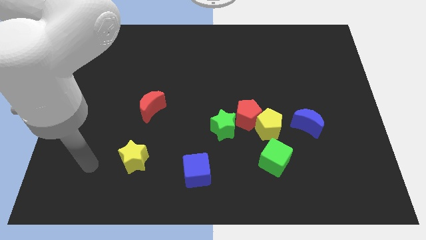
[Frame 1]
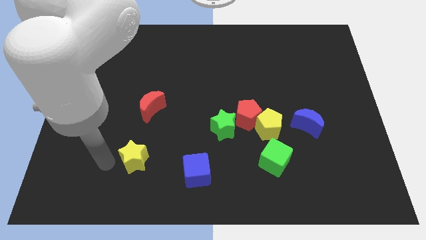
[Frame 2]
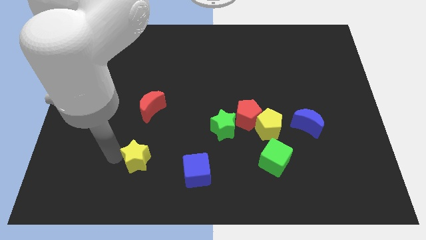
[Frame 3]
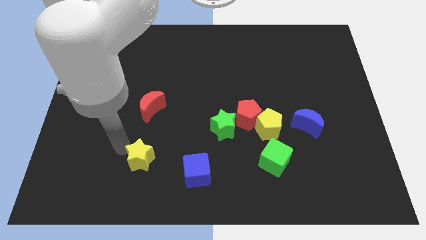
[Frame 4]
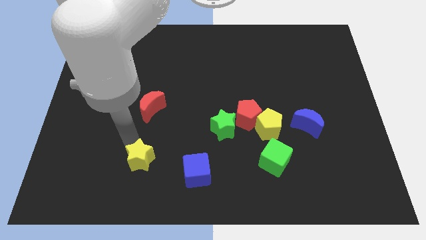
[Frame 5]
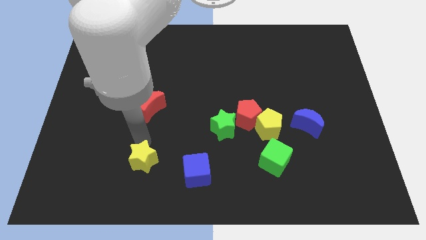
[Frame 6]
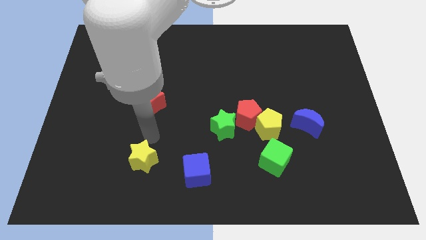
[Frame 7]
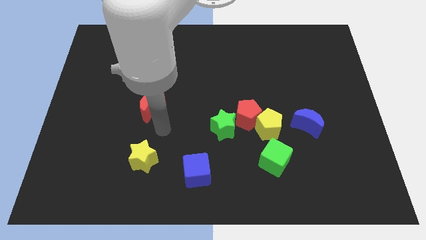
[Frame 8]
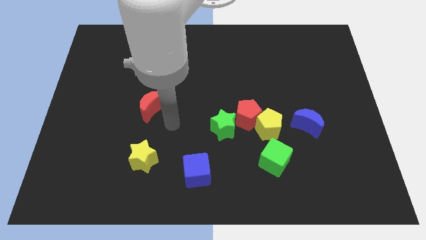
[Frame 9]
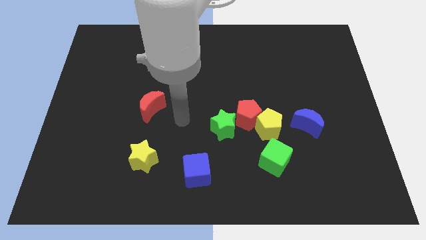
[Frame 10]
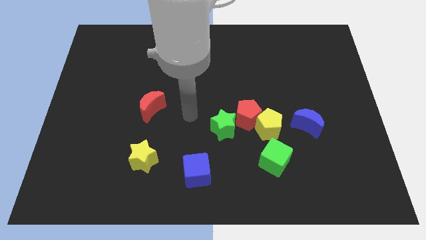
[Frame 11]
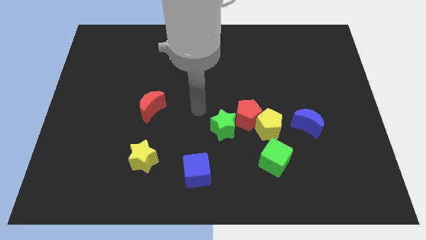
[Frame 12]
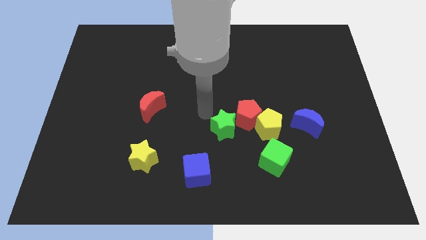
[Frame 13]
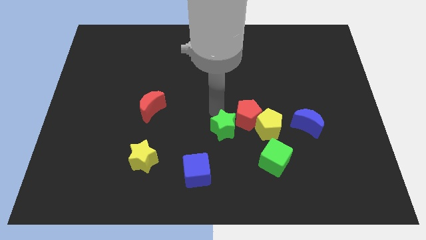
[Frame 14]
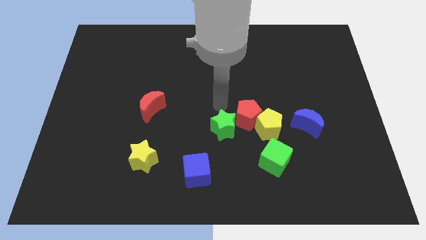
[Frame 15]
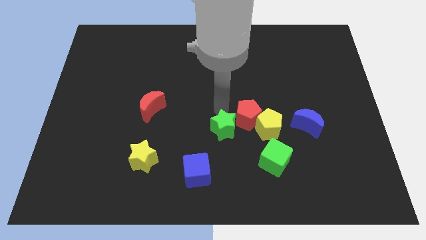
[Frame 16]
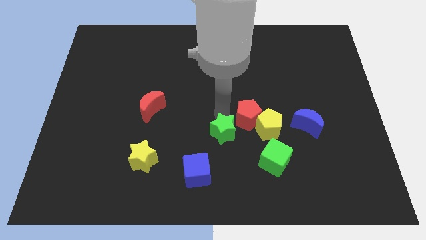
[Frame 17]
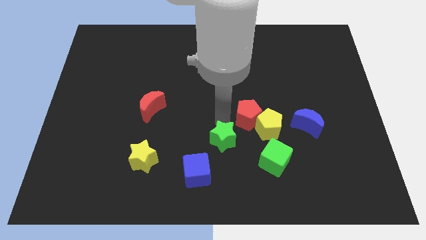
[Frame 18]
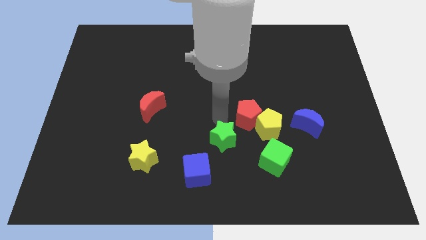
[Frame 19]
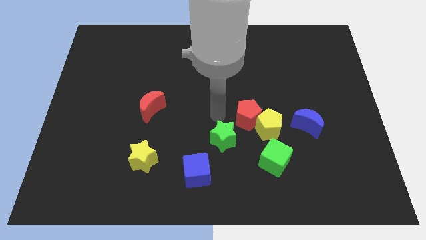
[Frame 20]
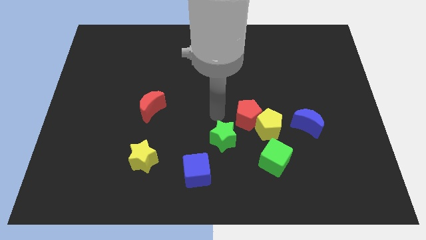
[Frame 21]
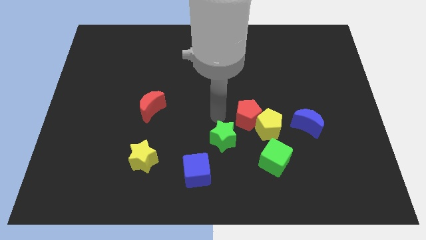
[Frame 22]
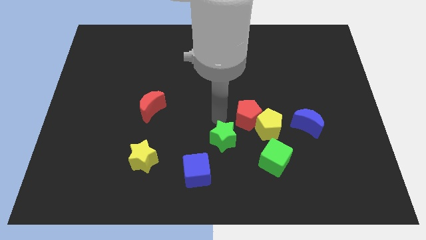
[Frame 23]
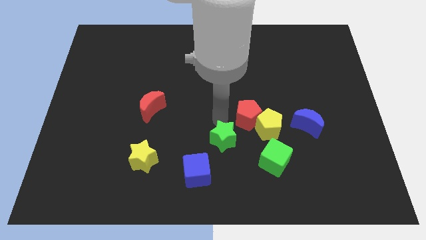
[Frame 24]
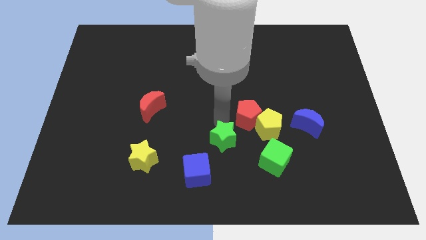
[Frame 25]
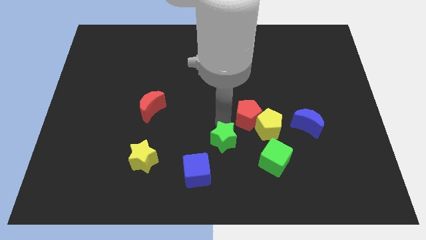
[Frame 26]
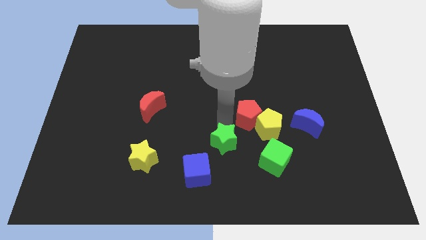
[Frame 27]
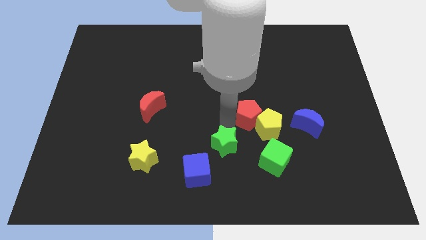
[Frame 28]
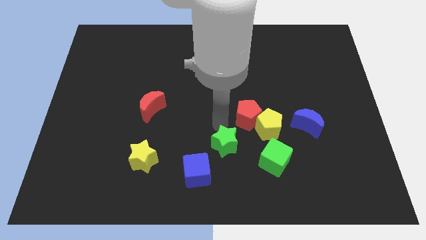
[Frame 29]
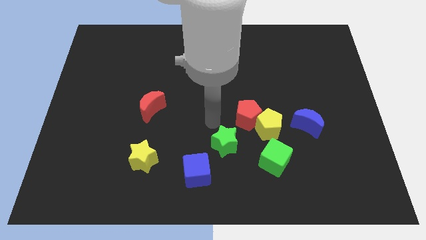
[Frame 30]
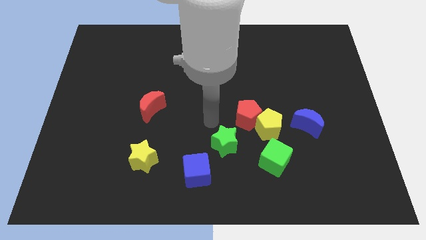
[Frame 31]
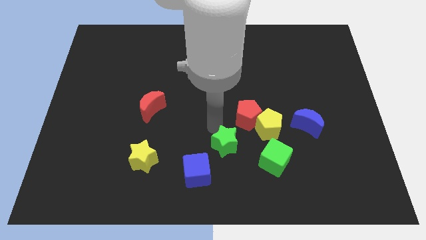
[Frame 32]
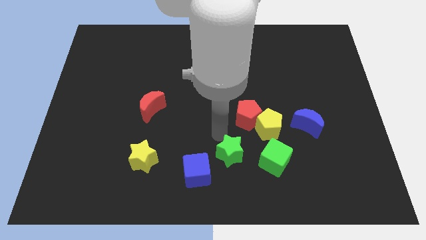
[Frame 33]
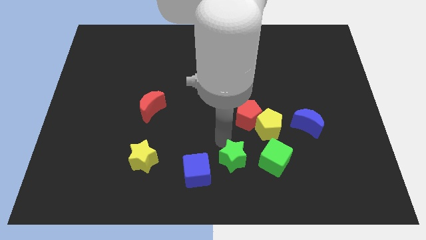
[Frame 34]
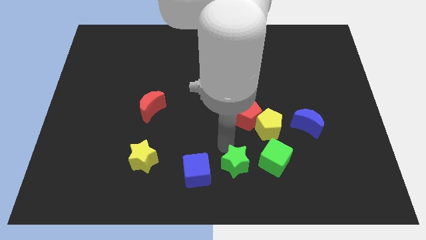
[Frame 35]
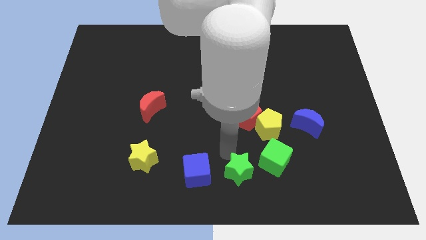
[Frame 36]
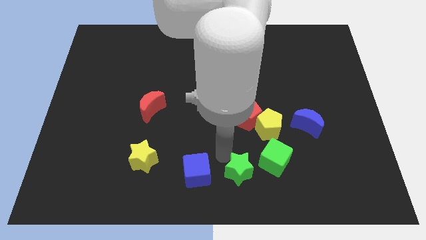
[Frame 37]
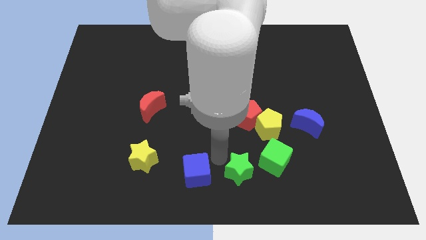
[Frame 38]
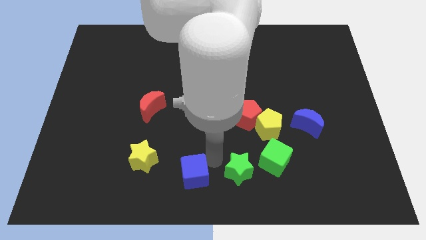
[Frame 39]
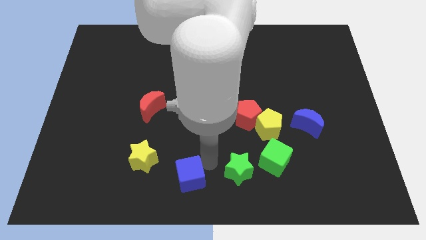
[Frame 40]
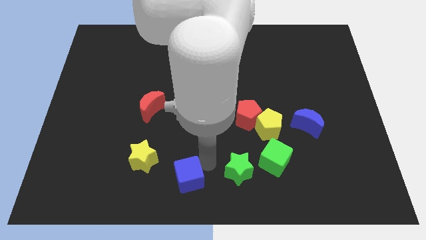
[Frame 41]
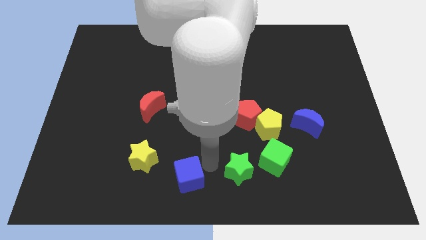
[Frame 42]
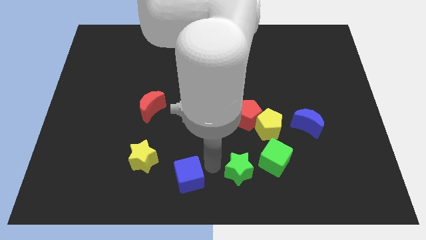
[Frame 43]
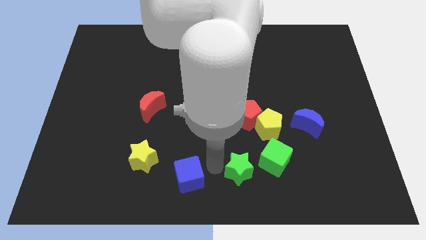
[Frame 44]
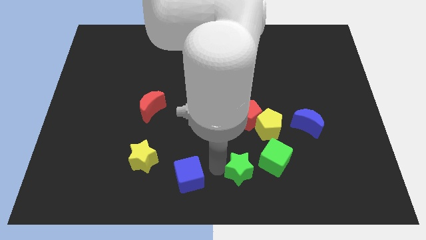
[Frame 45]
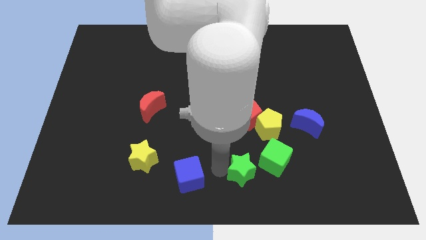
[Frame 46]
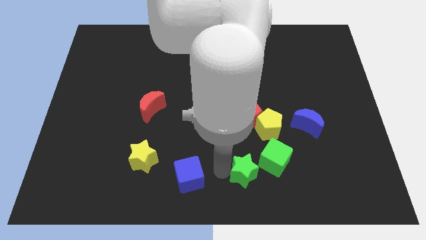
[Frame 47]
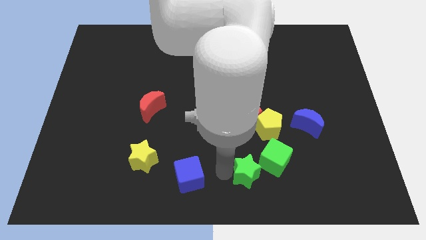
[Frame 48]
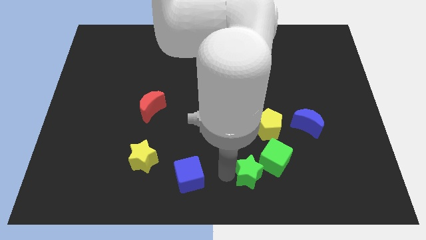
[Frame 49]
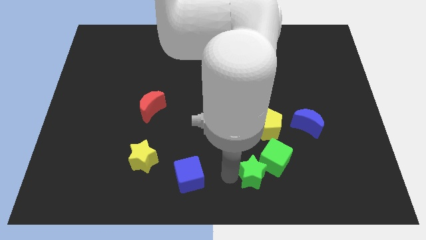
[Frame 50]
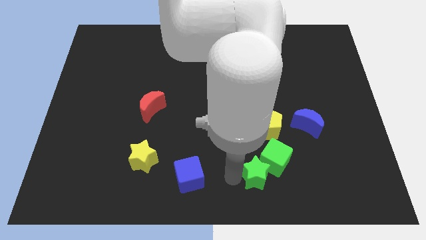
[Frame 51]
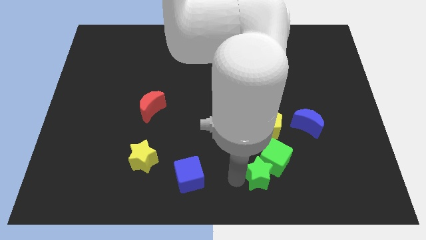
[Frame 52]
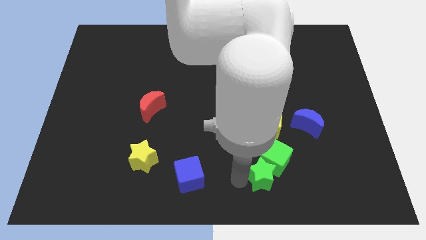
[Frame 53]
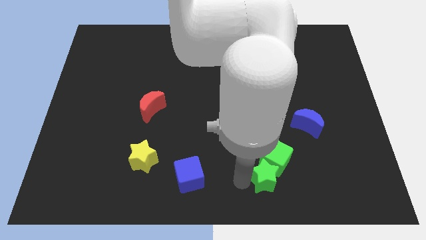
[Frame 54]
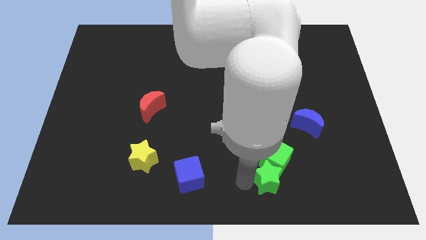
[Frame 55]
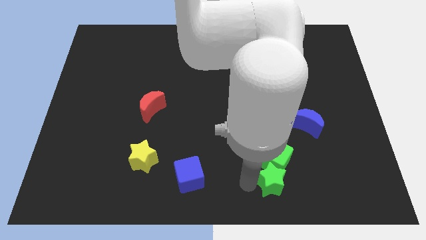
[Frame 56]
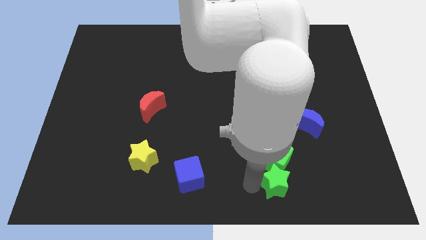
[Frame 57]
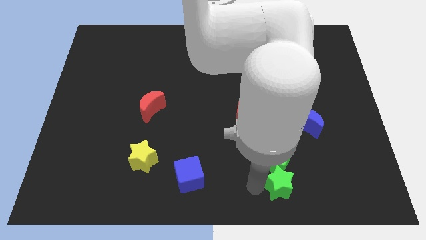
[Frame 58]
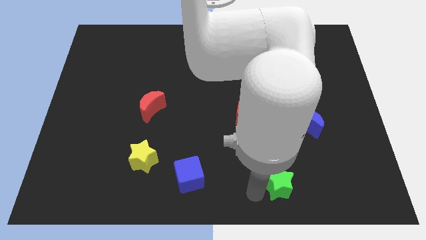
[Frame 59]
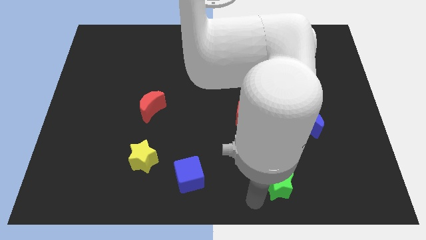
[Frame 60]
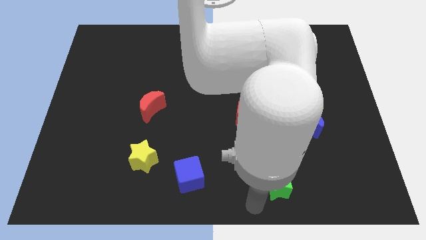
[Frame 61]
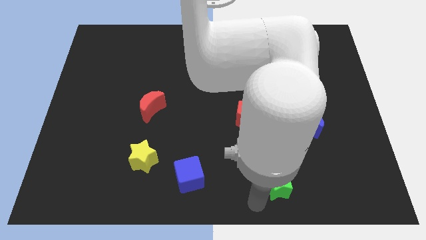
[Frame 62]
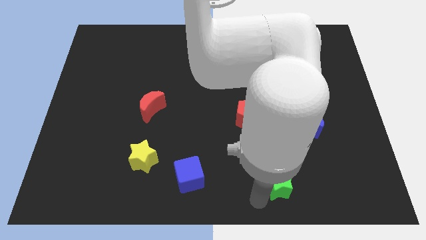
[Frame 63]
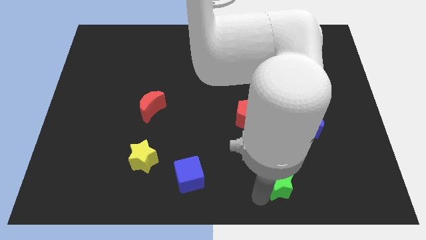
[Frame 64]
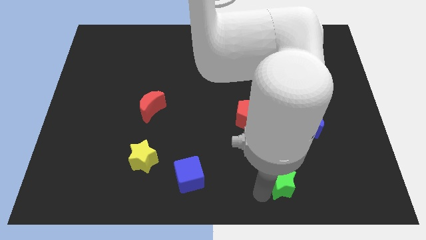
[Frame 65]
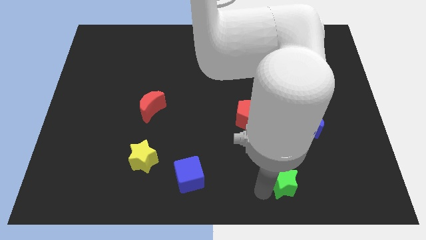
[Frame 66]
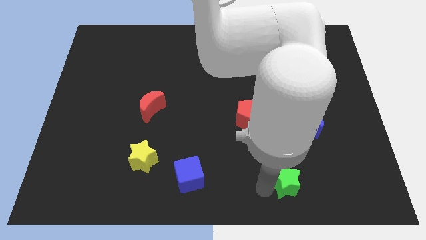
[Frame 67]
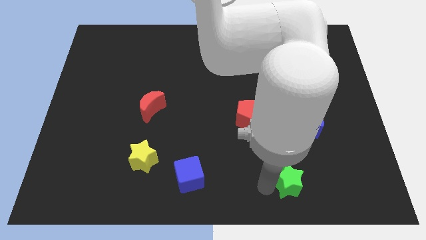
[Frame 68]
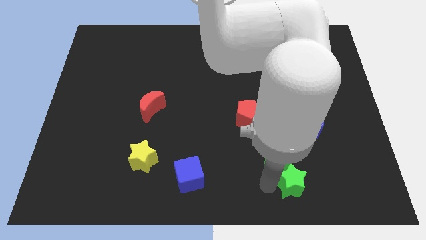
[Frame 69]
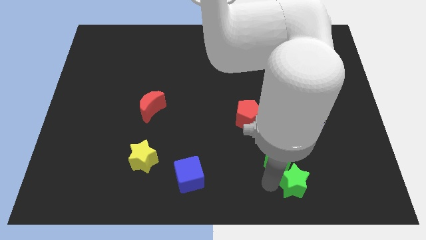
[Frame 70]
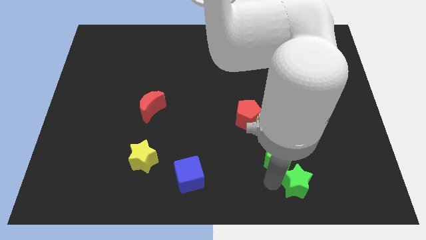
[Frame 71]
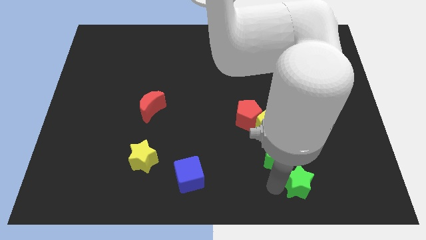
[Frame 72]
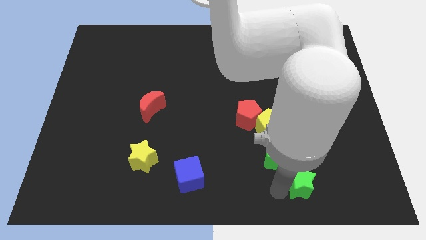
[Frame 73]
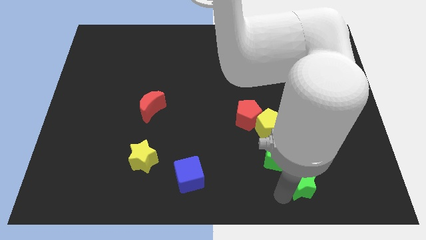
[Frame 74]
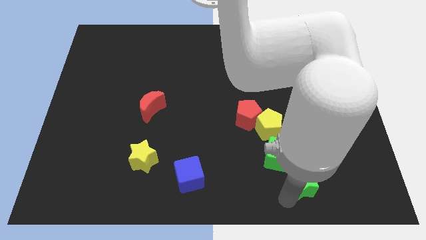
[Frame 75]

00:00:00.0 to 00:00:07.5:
put the green star to the bottom side of the blue moon
